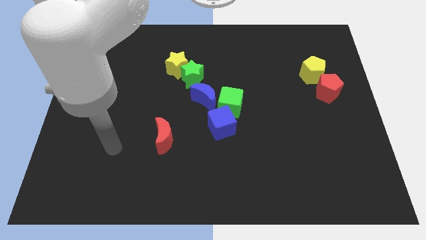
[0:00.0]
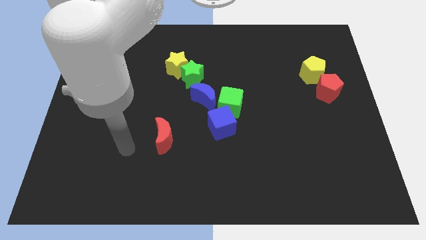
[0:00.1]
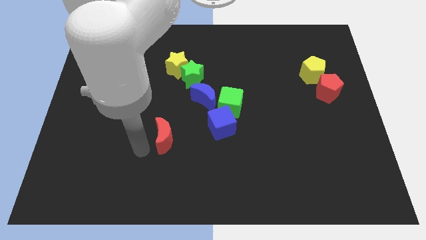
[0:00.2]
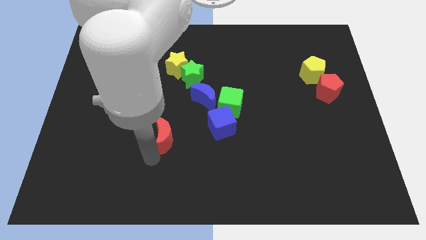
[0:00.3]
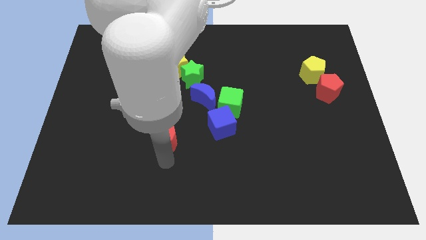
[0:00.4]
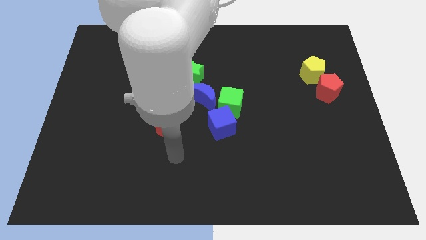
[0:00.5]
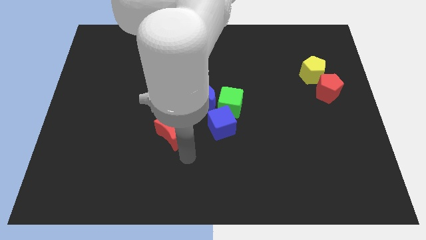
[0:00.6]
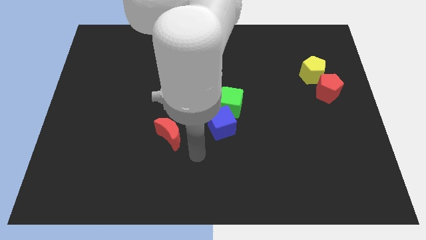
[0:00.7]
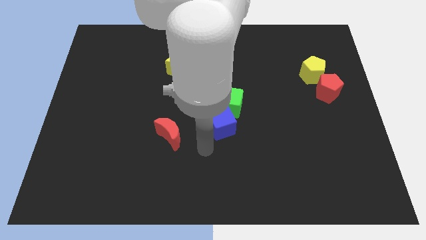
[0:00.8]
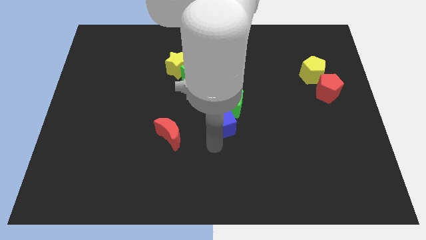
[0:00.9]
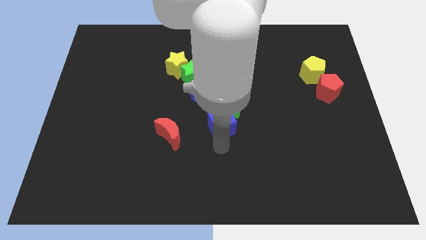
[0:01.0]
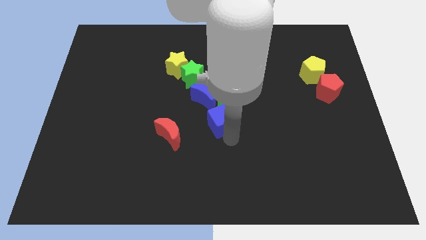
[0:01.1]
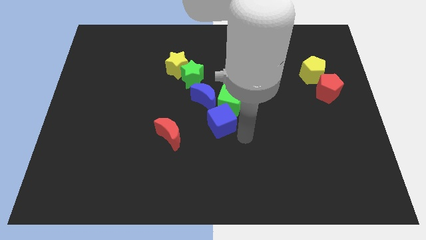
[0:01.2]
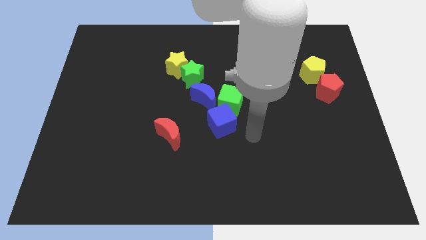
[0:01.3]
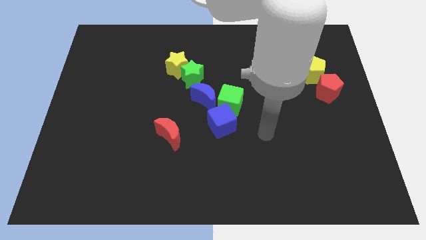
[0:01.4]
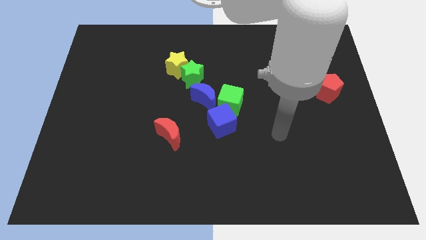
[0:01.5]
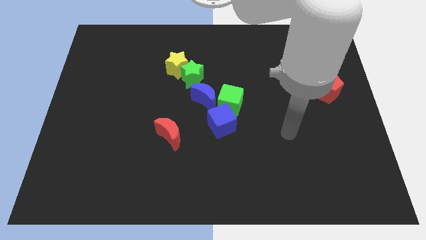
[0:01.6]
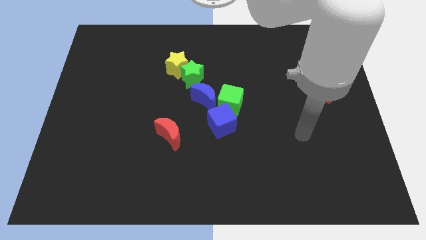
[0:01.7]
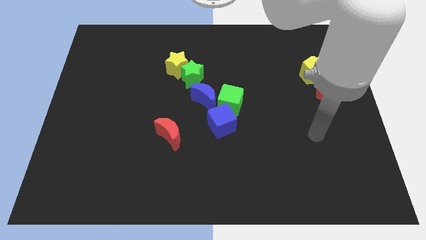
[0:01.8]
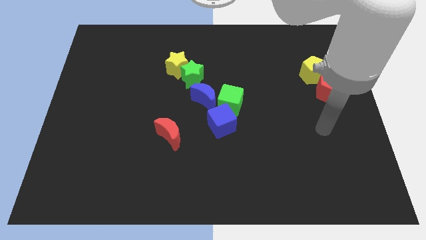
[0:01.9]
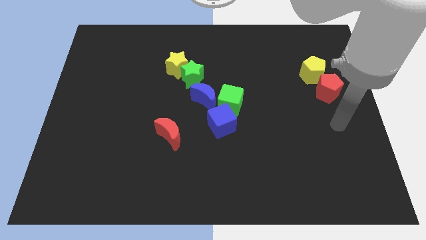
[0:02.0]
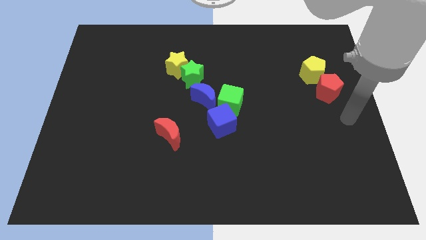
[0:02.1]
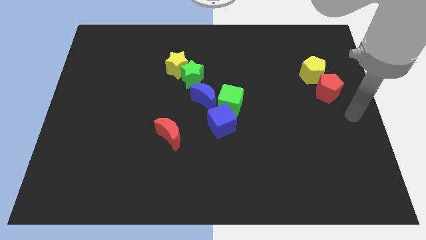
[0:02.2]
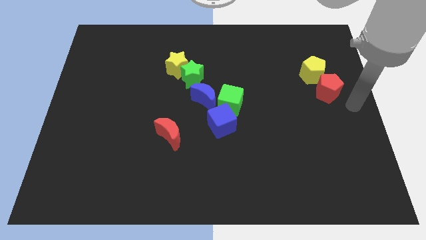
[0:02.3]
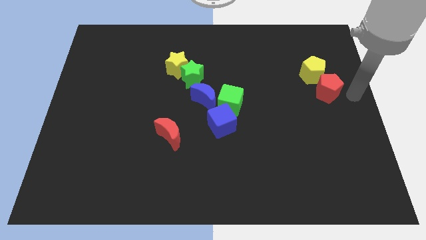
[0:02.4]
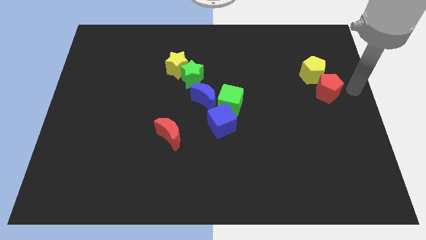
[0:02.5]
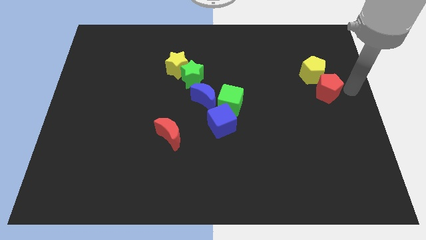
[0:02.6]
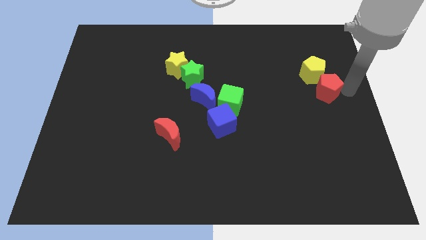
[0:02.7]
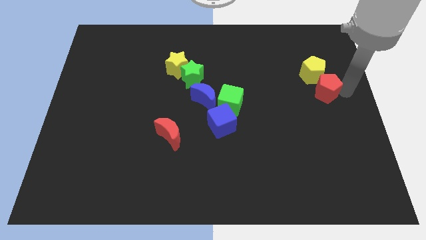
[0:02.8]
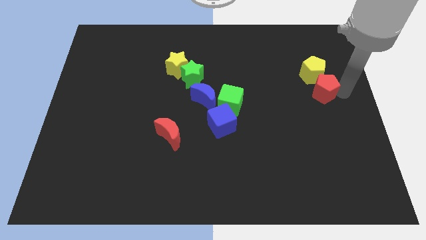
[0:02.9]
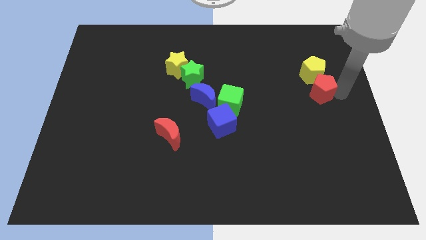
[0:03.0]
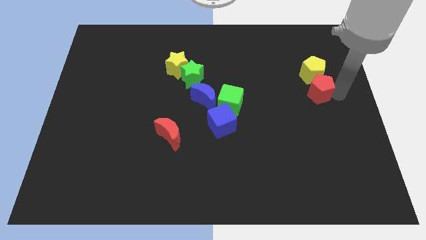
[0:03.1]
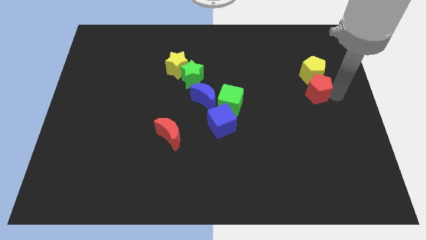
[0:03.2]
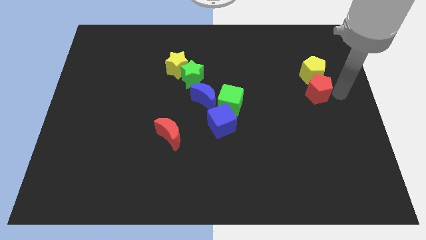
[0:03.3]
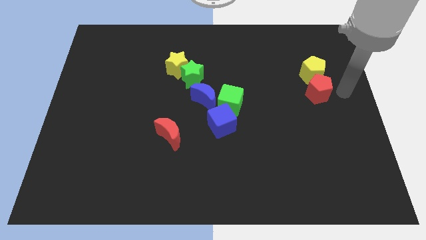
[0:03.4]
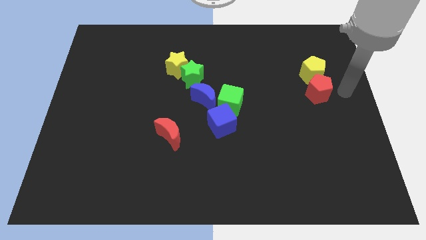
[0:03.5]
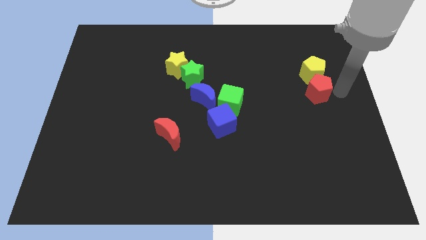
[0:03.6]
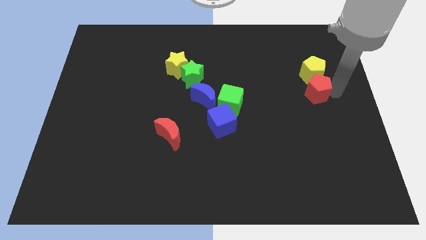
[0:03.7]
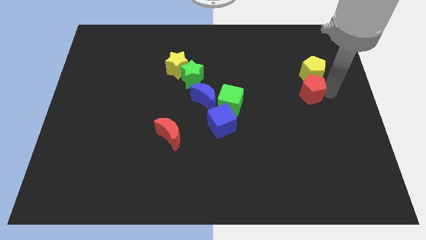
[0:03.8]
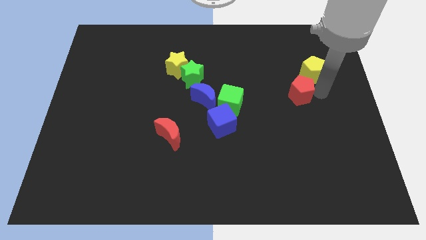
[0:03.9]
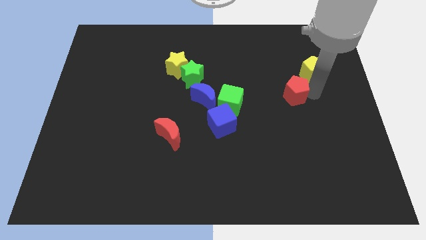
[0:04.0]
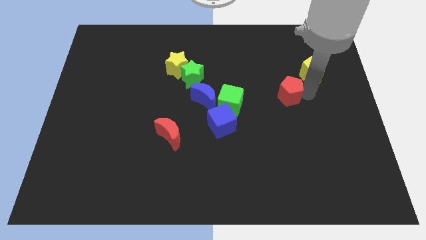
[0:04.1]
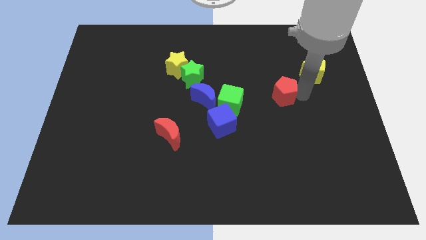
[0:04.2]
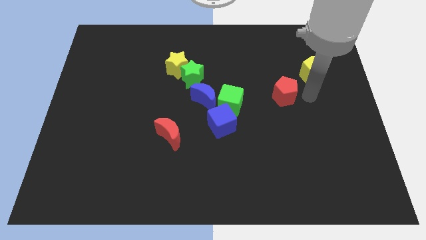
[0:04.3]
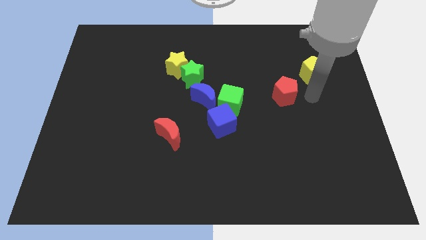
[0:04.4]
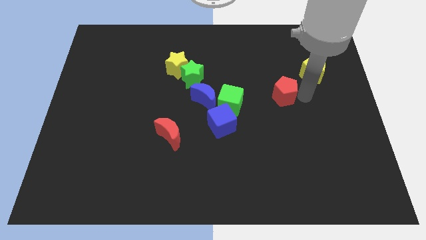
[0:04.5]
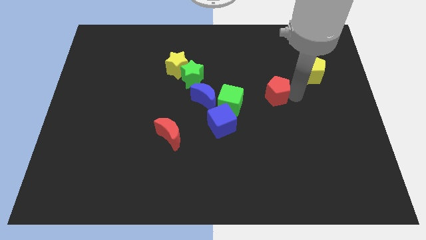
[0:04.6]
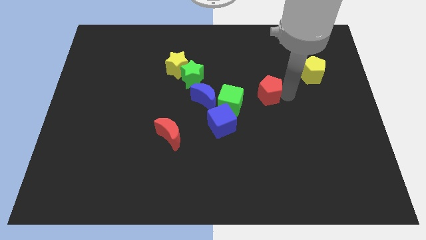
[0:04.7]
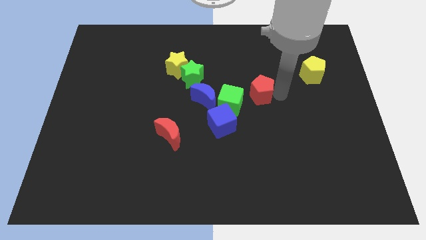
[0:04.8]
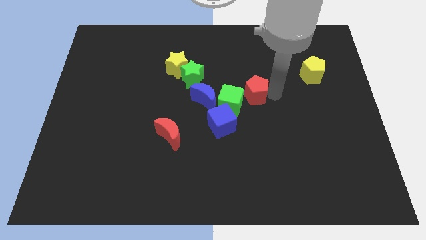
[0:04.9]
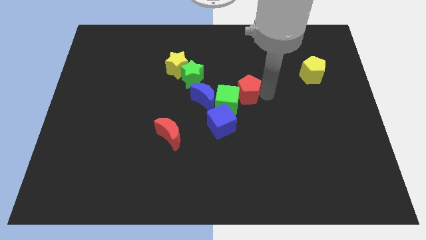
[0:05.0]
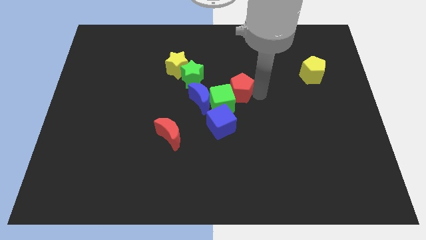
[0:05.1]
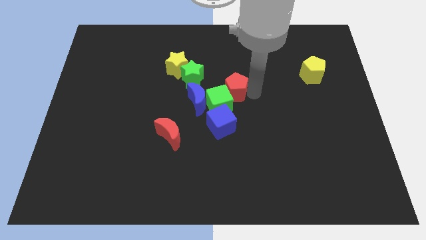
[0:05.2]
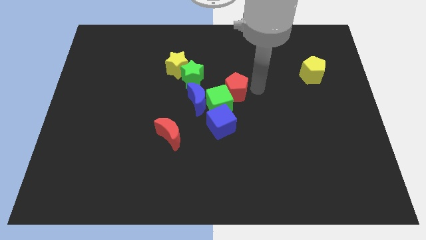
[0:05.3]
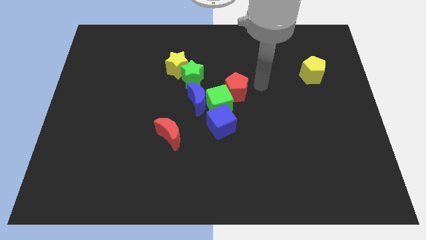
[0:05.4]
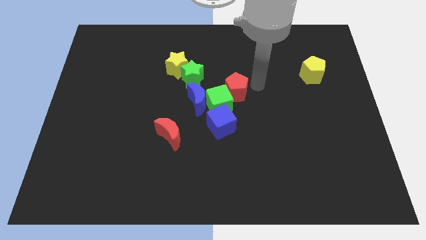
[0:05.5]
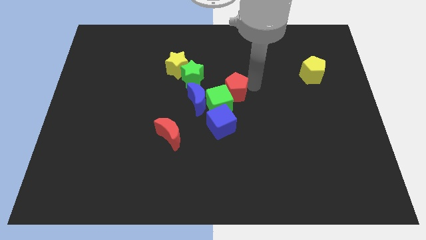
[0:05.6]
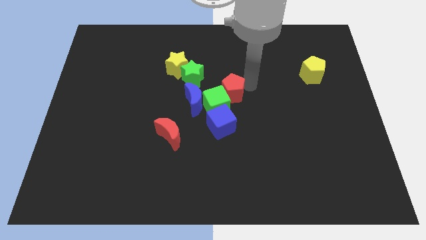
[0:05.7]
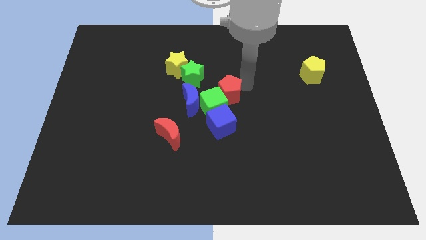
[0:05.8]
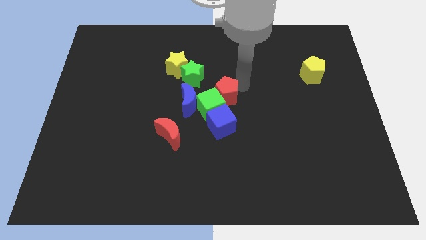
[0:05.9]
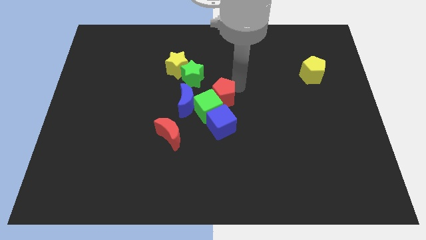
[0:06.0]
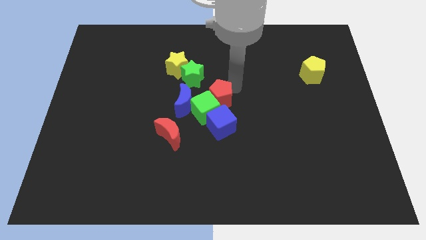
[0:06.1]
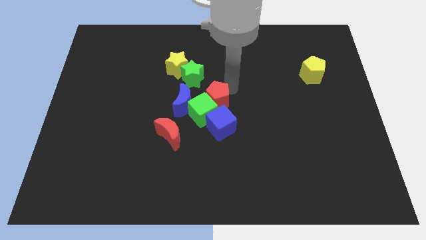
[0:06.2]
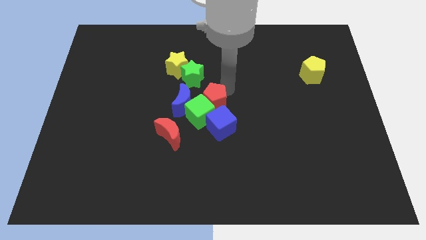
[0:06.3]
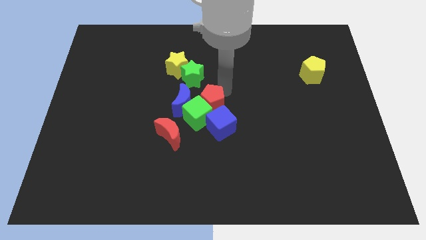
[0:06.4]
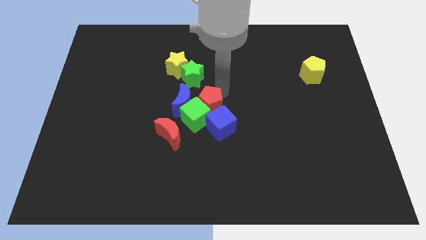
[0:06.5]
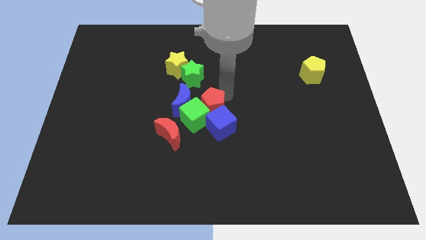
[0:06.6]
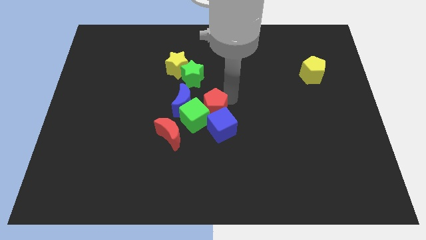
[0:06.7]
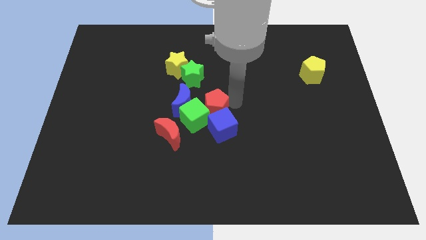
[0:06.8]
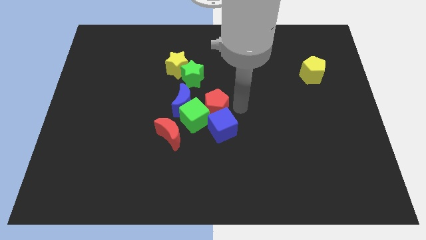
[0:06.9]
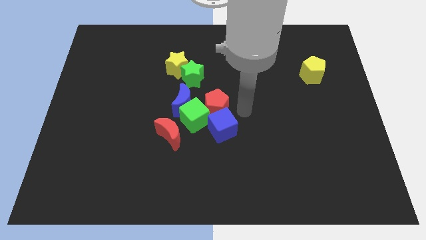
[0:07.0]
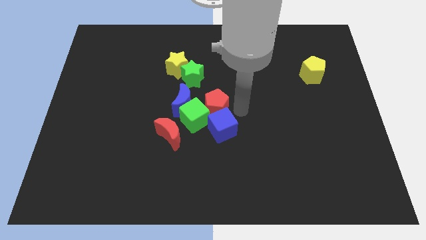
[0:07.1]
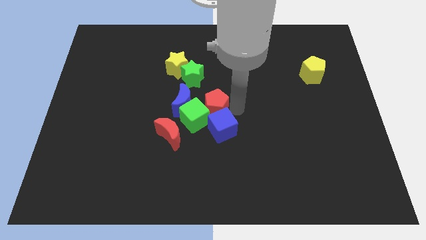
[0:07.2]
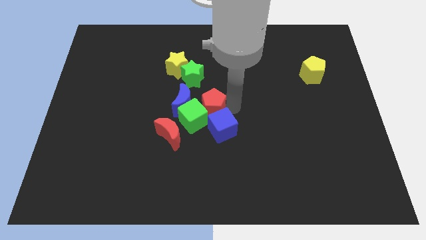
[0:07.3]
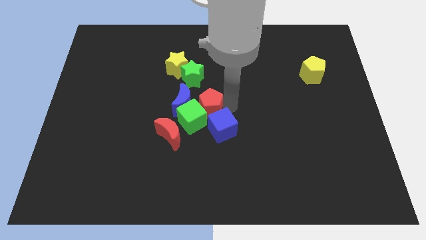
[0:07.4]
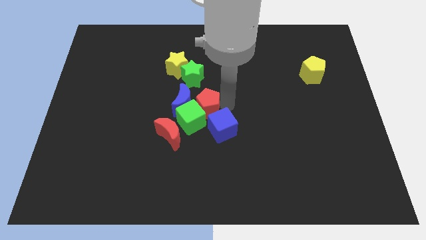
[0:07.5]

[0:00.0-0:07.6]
push the red pentagon next to the blue moon
